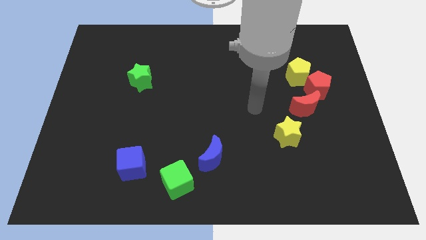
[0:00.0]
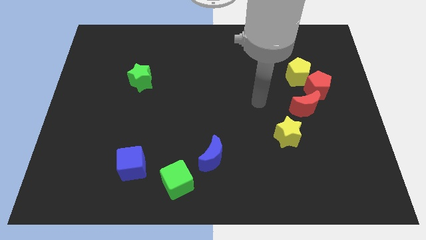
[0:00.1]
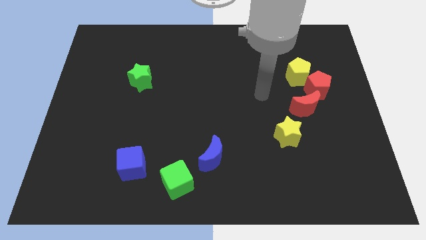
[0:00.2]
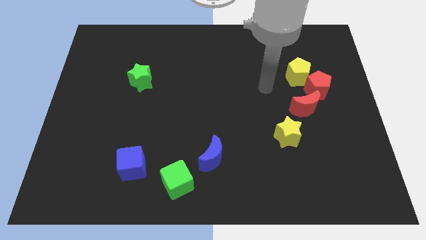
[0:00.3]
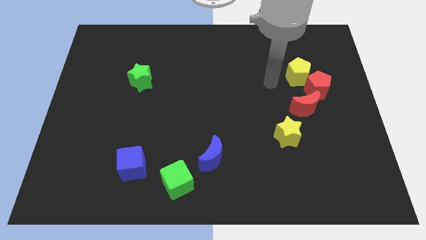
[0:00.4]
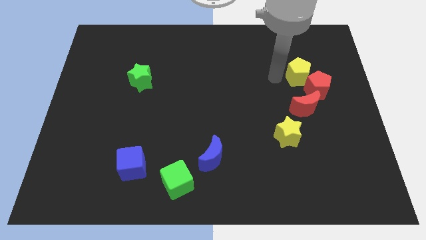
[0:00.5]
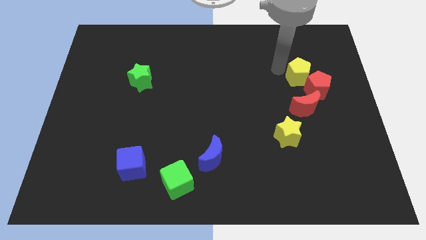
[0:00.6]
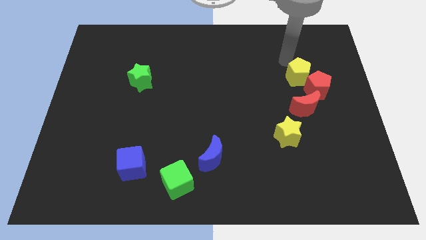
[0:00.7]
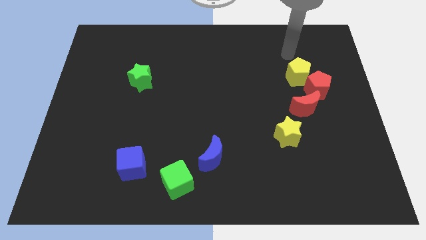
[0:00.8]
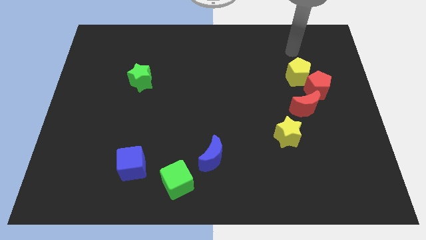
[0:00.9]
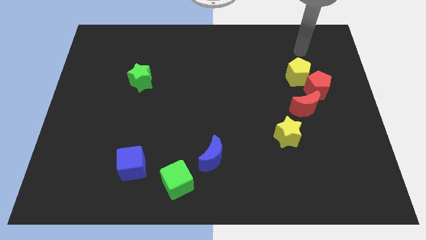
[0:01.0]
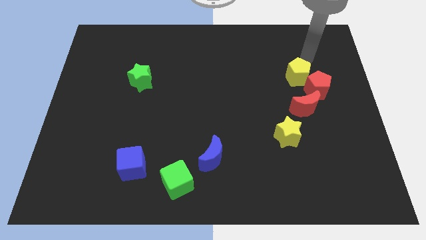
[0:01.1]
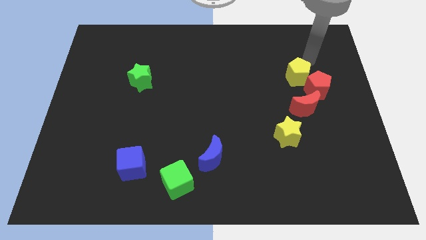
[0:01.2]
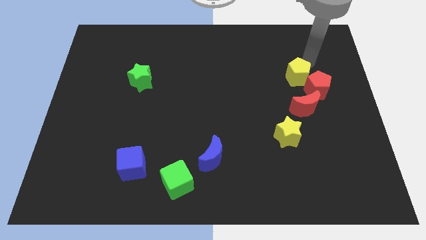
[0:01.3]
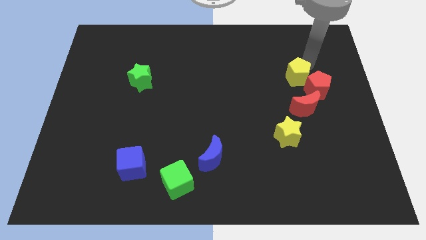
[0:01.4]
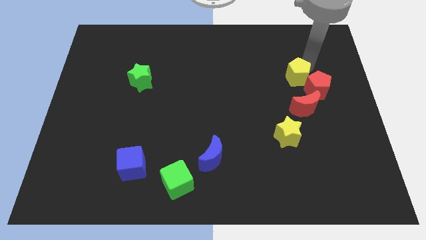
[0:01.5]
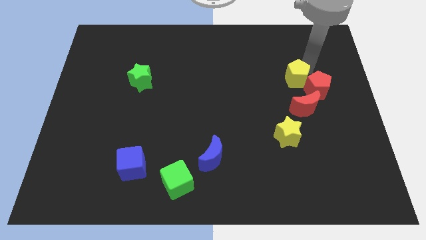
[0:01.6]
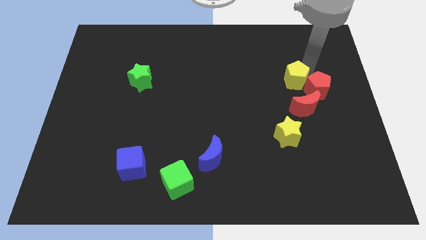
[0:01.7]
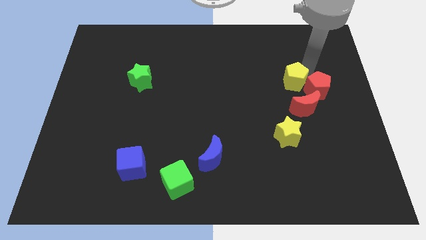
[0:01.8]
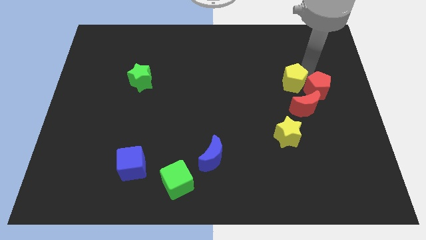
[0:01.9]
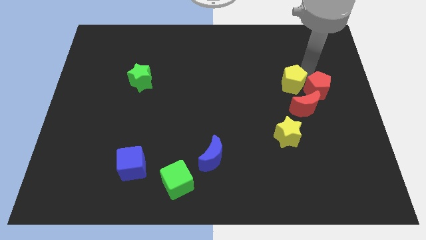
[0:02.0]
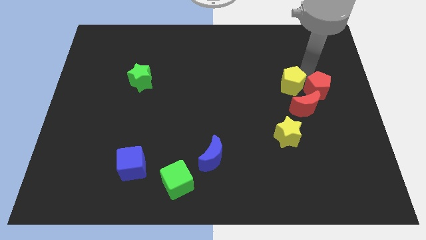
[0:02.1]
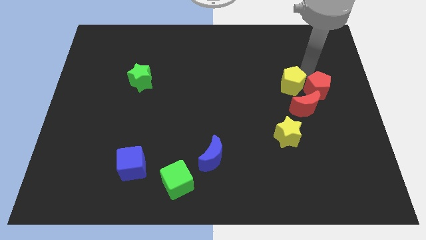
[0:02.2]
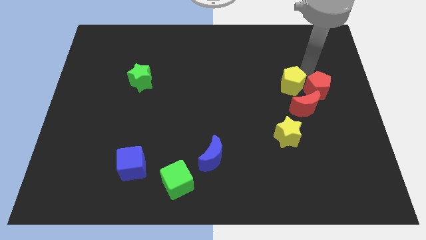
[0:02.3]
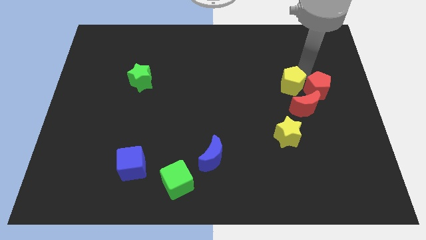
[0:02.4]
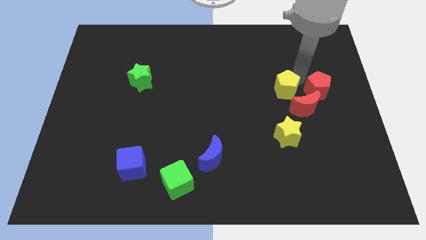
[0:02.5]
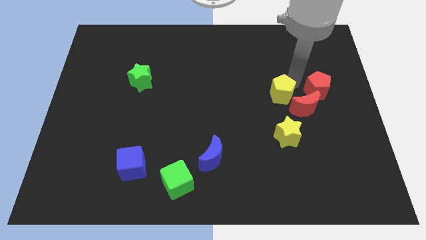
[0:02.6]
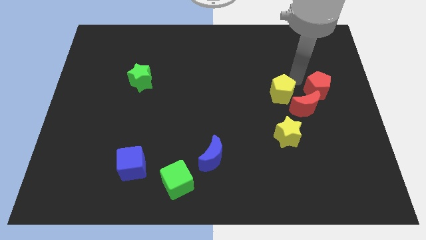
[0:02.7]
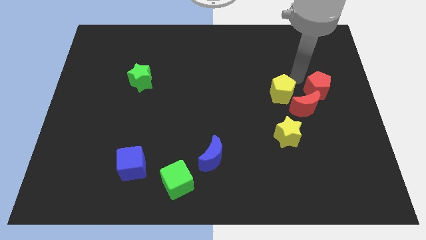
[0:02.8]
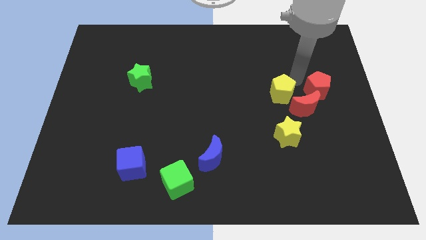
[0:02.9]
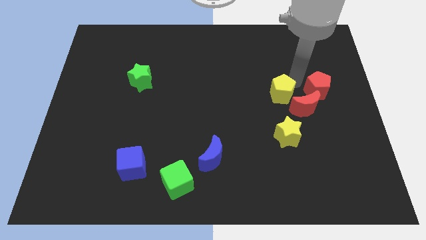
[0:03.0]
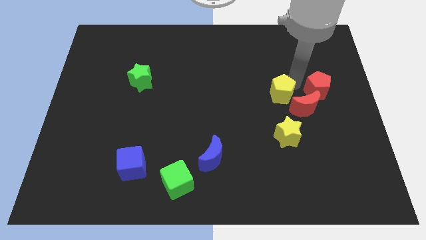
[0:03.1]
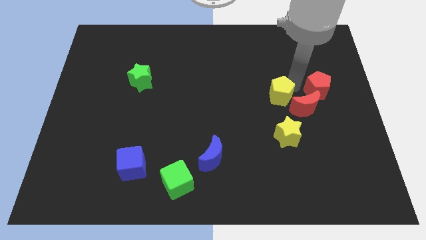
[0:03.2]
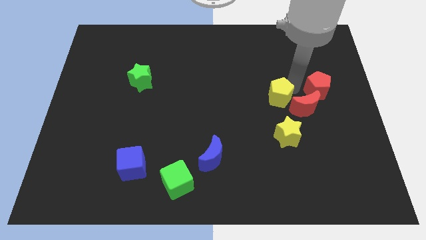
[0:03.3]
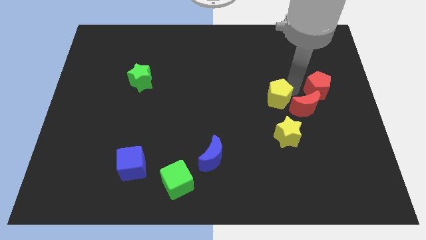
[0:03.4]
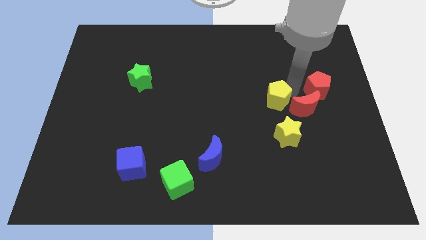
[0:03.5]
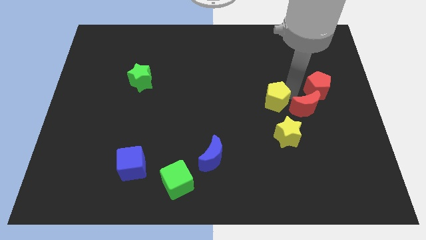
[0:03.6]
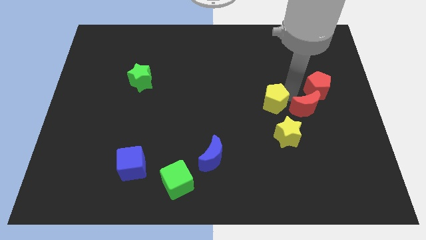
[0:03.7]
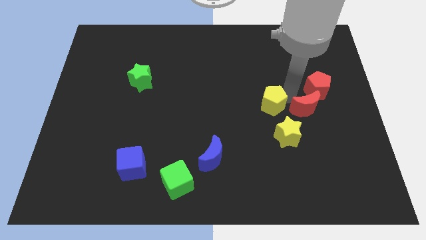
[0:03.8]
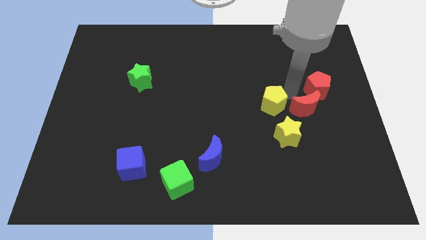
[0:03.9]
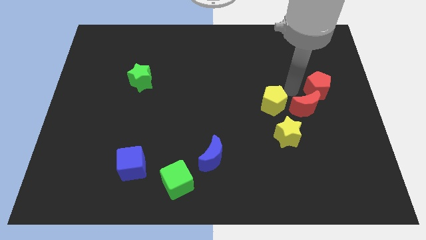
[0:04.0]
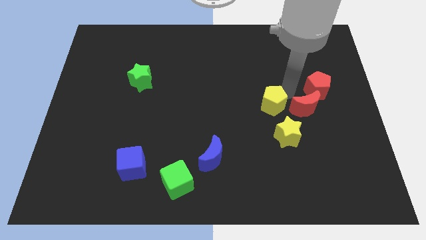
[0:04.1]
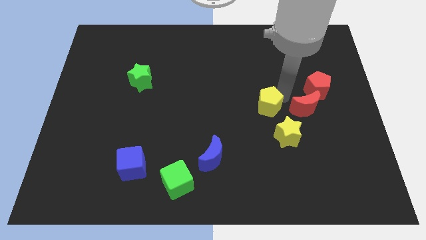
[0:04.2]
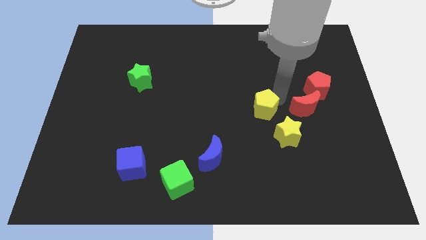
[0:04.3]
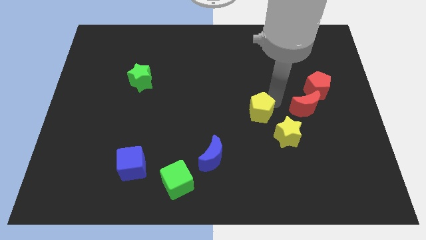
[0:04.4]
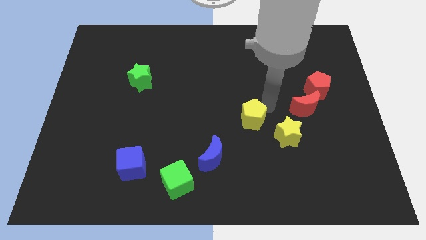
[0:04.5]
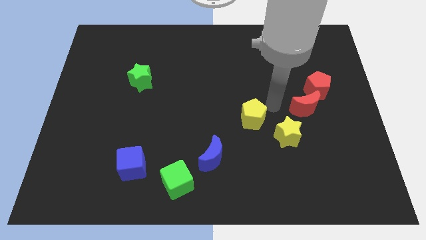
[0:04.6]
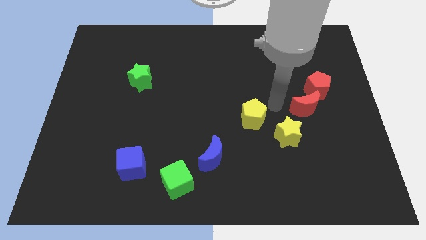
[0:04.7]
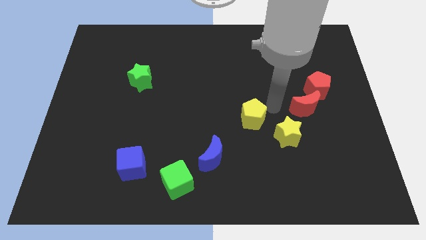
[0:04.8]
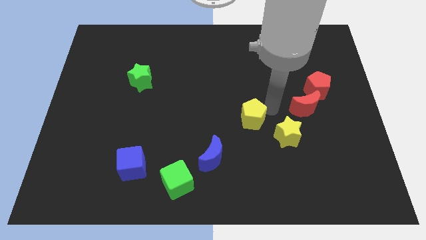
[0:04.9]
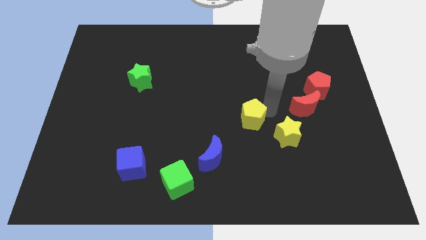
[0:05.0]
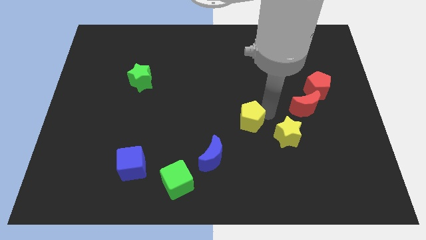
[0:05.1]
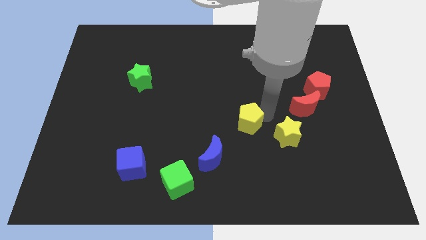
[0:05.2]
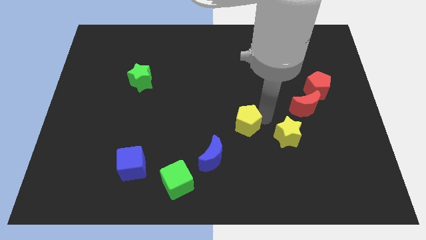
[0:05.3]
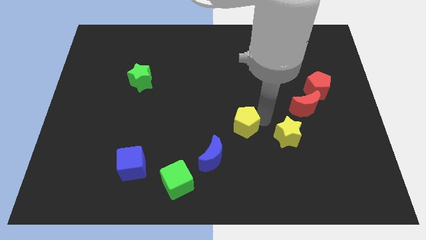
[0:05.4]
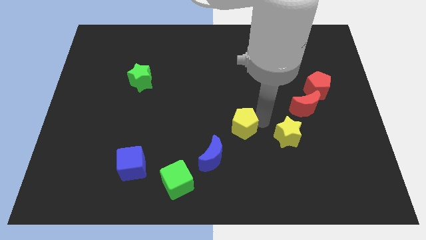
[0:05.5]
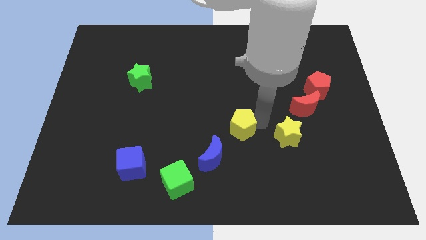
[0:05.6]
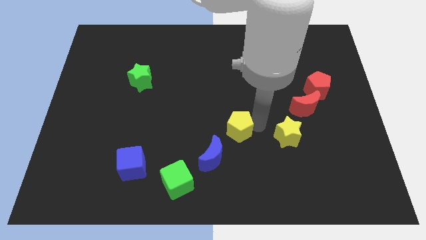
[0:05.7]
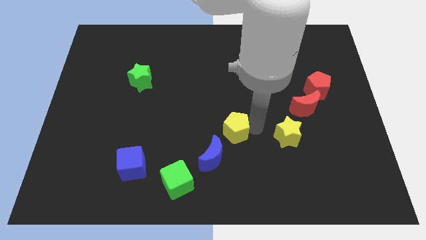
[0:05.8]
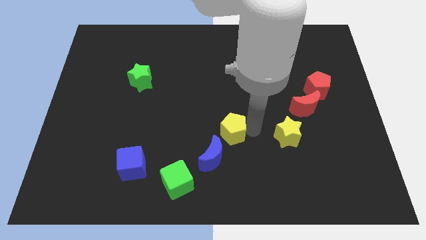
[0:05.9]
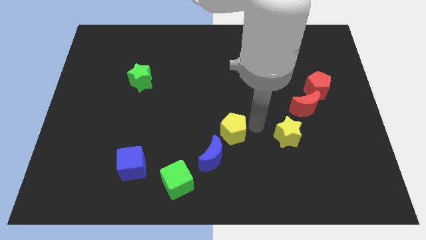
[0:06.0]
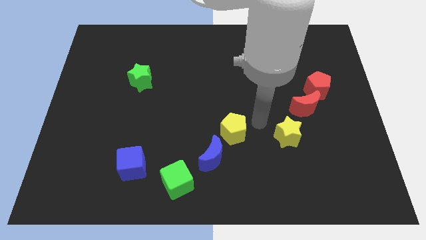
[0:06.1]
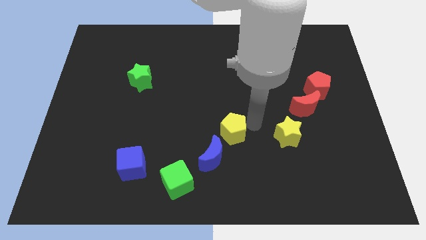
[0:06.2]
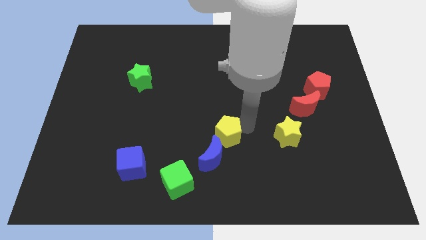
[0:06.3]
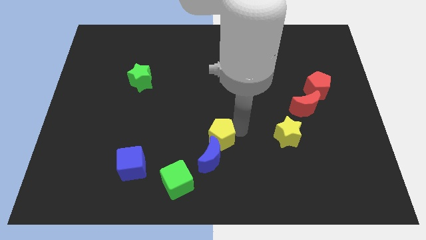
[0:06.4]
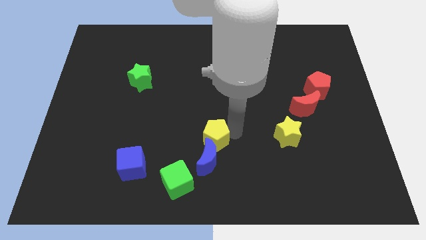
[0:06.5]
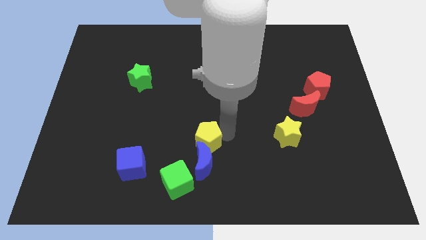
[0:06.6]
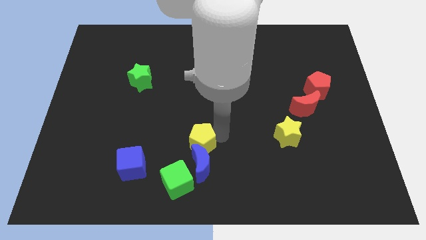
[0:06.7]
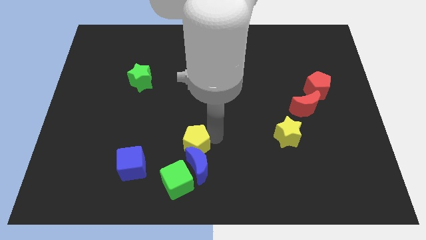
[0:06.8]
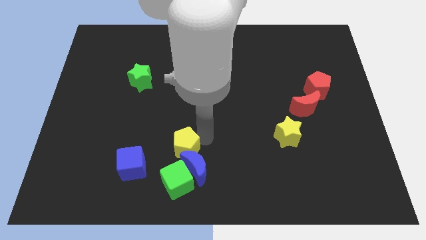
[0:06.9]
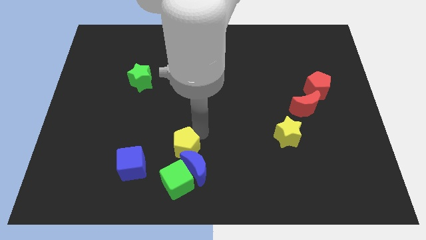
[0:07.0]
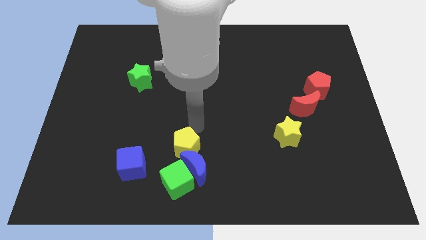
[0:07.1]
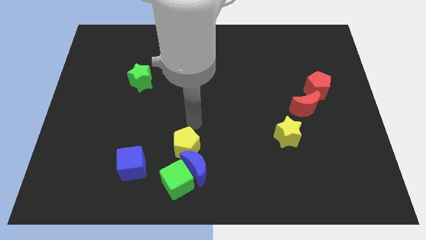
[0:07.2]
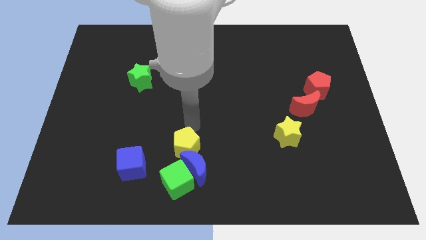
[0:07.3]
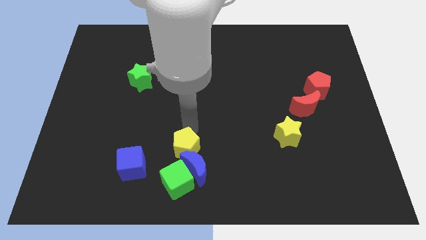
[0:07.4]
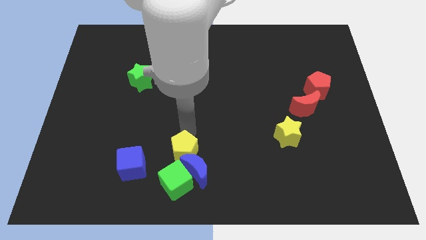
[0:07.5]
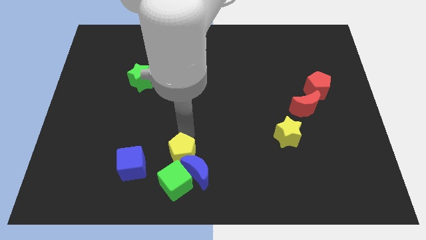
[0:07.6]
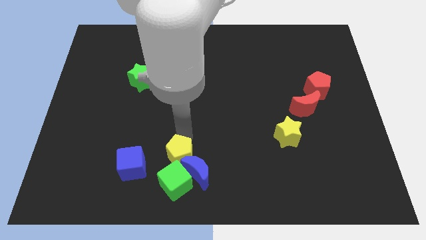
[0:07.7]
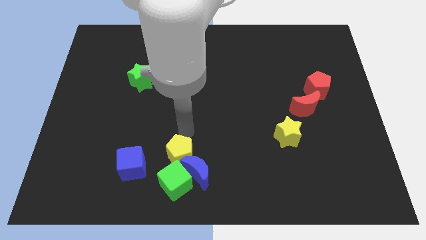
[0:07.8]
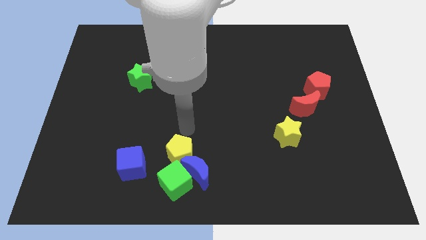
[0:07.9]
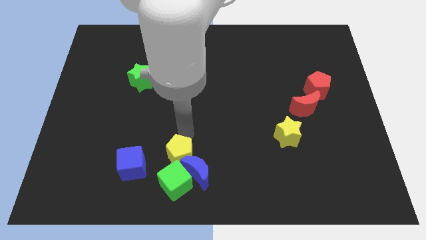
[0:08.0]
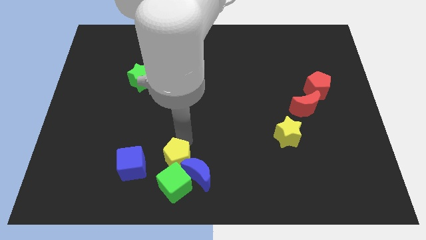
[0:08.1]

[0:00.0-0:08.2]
slide the yellow pentagon close to the green cube
